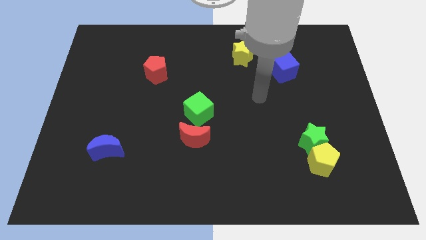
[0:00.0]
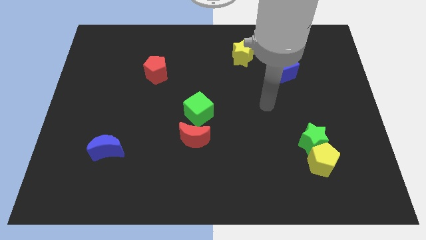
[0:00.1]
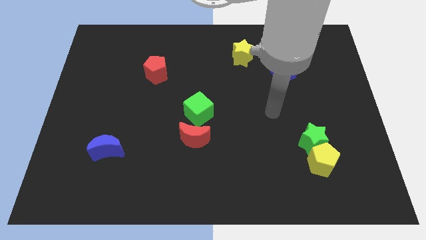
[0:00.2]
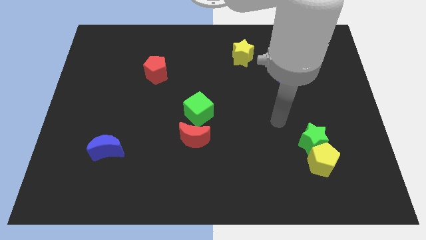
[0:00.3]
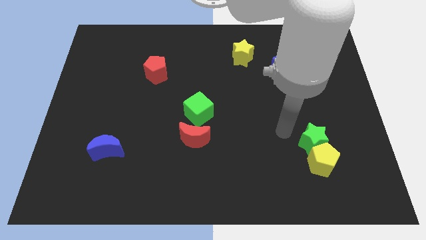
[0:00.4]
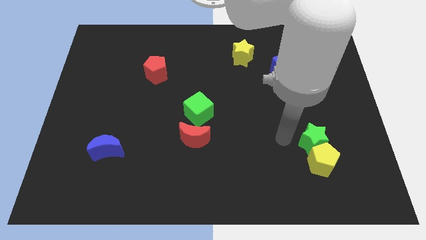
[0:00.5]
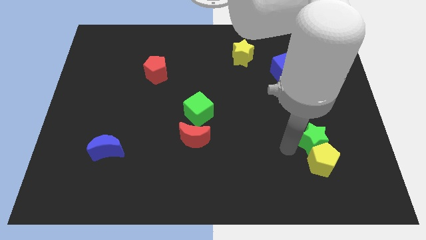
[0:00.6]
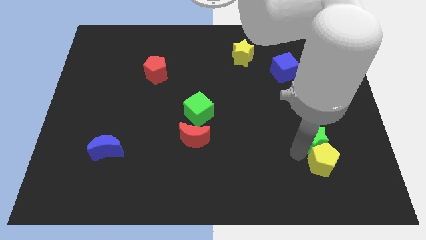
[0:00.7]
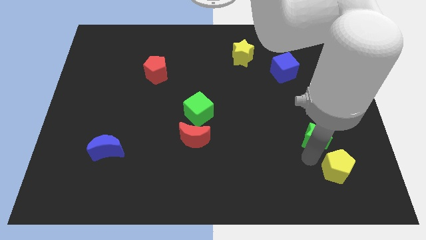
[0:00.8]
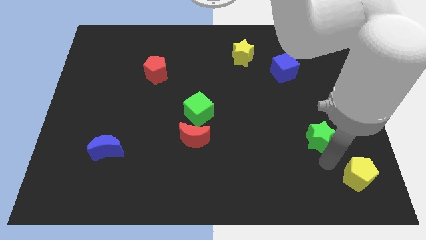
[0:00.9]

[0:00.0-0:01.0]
pull the green star apart from the yellow pentagon

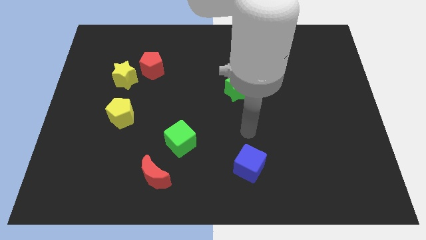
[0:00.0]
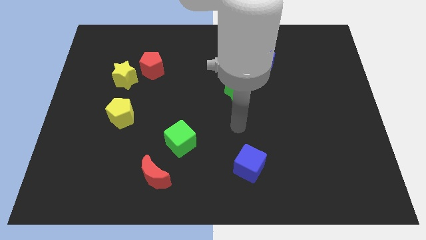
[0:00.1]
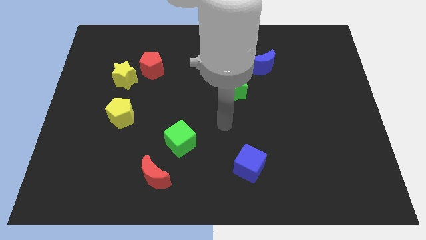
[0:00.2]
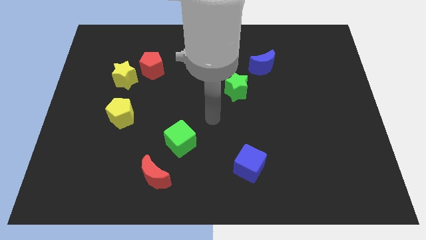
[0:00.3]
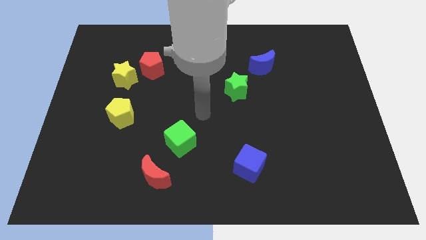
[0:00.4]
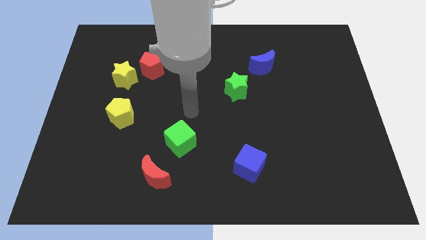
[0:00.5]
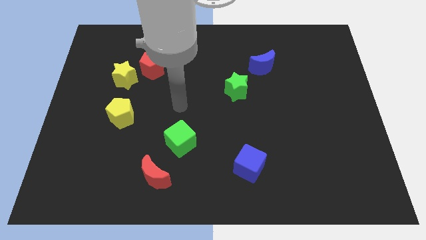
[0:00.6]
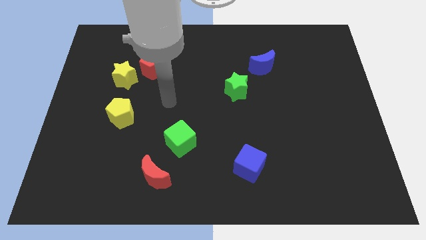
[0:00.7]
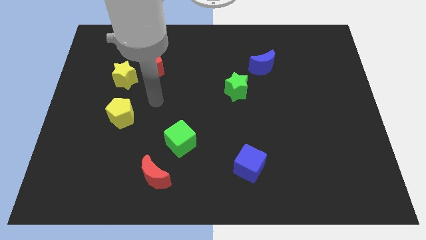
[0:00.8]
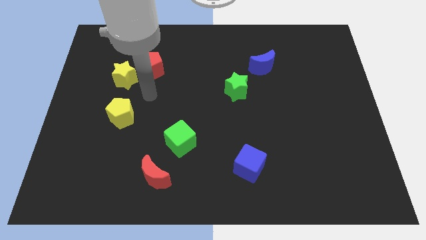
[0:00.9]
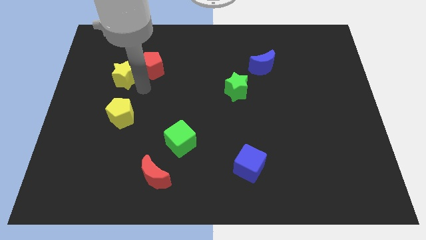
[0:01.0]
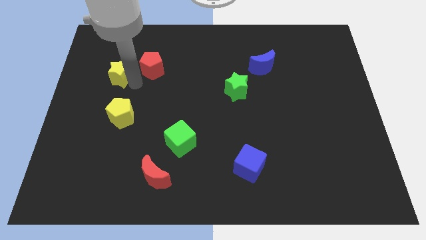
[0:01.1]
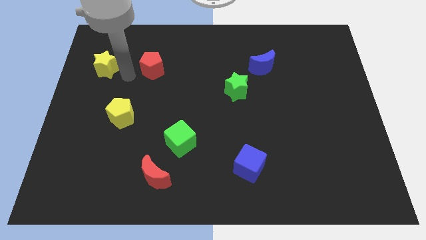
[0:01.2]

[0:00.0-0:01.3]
separate the red pentagon from the yellow star

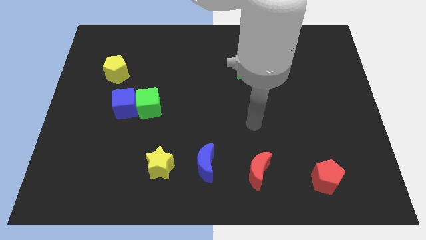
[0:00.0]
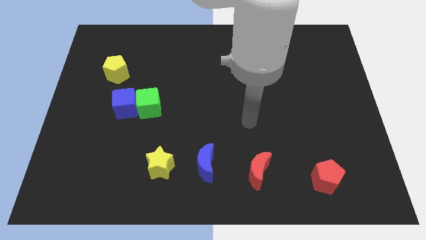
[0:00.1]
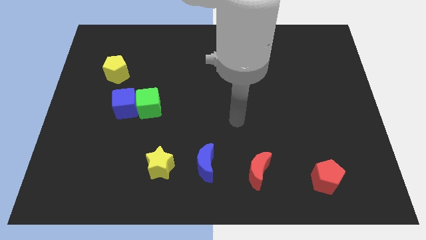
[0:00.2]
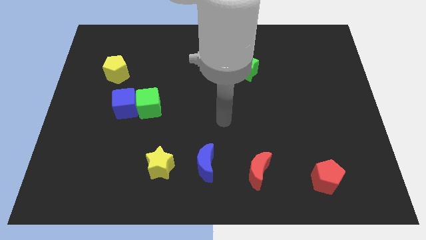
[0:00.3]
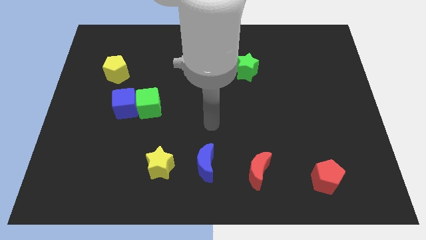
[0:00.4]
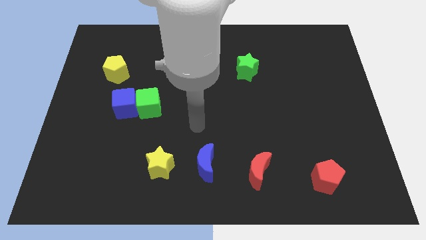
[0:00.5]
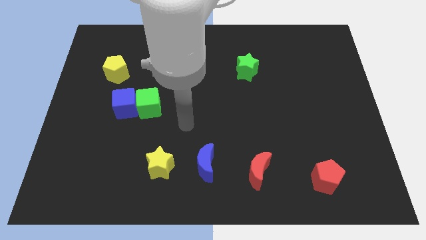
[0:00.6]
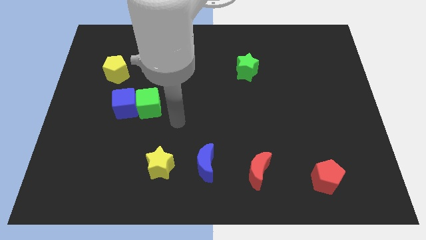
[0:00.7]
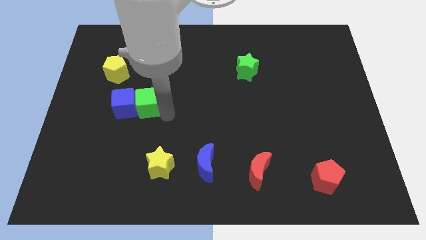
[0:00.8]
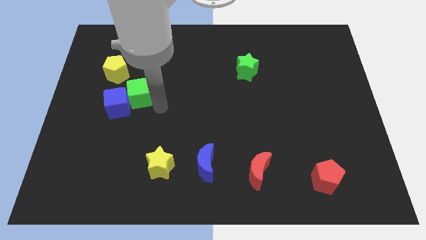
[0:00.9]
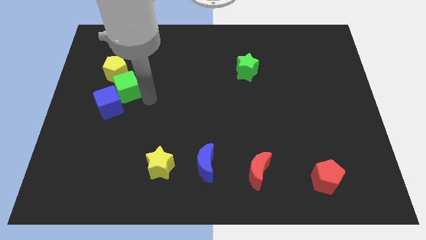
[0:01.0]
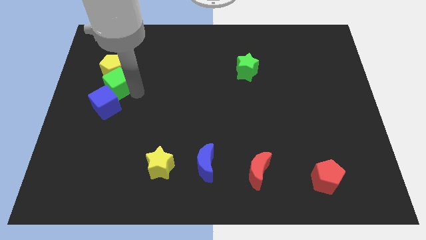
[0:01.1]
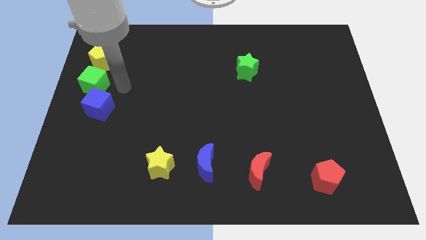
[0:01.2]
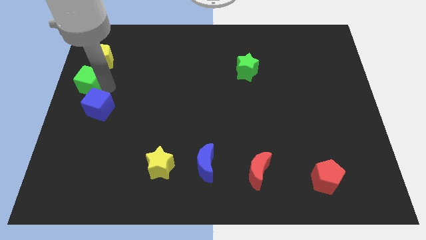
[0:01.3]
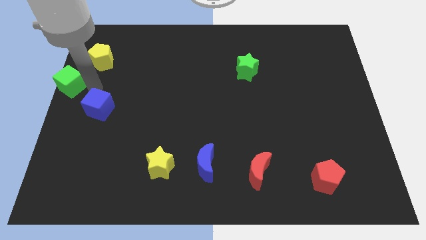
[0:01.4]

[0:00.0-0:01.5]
pull the blue cube apart from the green cube

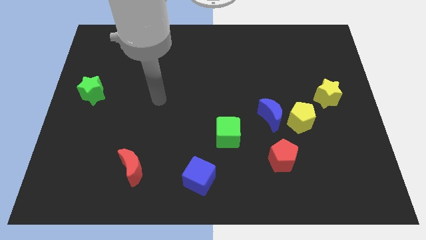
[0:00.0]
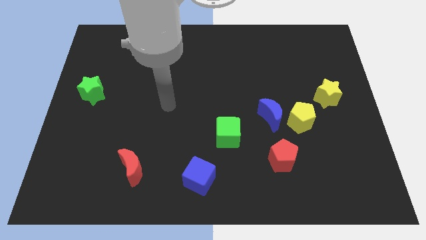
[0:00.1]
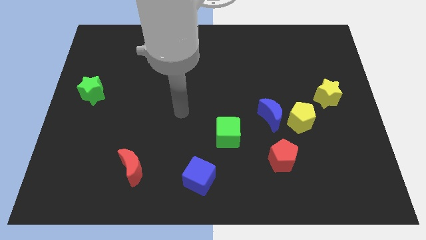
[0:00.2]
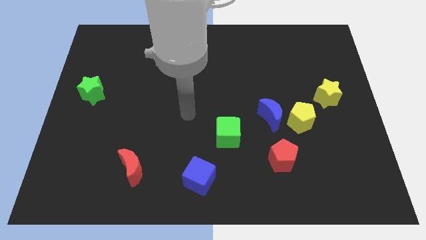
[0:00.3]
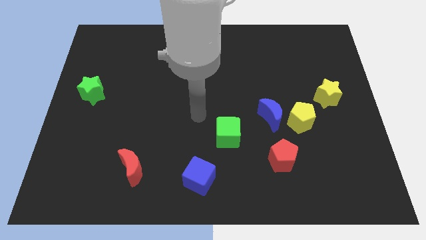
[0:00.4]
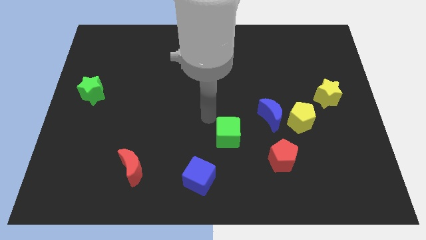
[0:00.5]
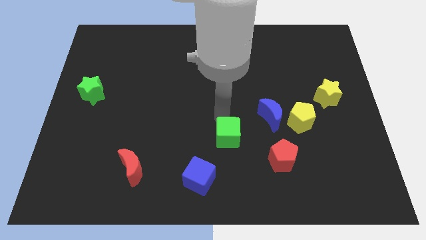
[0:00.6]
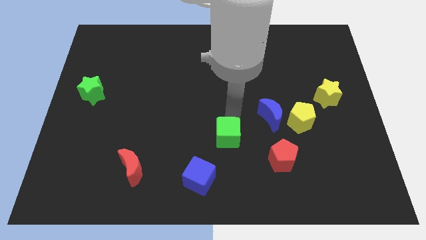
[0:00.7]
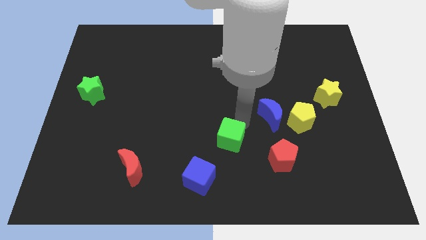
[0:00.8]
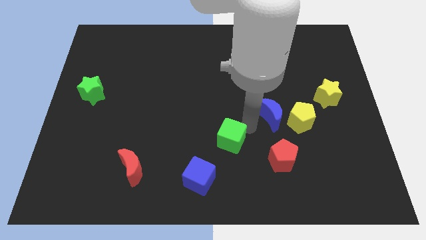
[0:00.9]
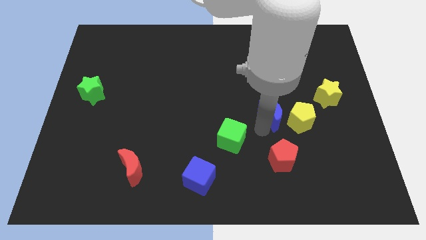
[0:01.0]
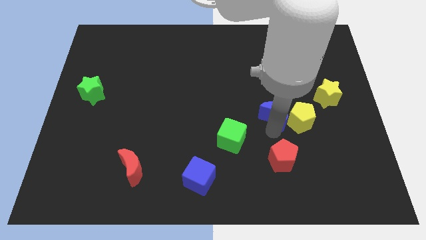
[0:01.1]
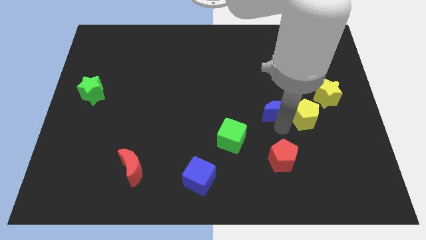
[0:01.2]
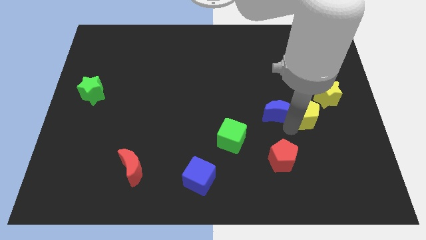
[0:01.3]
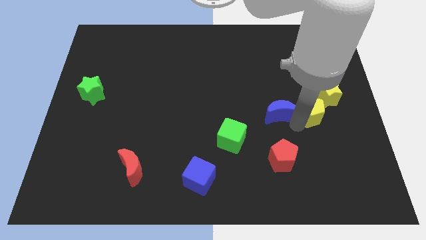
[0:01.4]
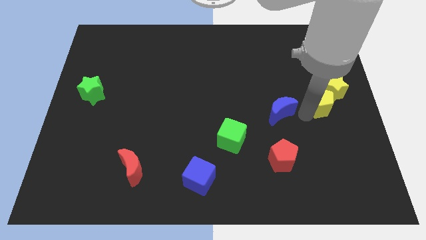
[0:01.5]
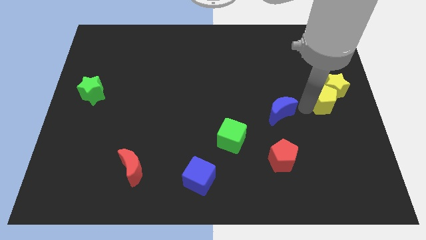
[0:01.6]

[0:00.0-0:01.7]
move the blue moon away from the yellow pentagon

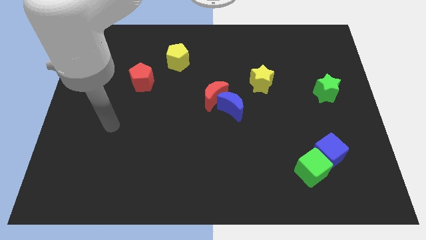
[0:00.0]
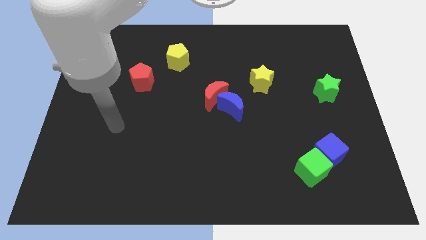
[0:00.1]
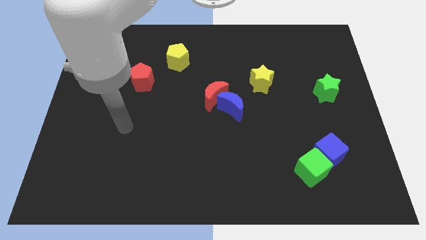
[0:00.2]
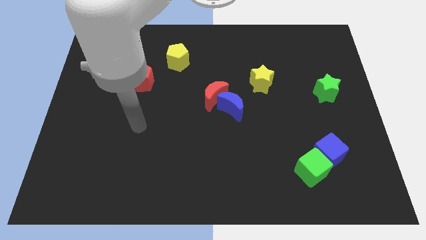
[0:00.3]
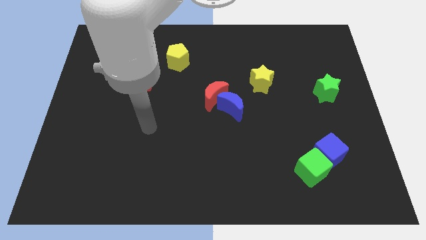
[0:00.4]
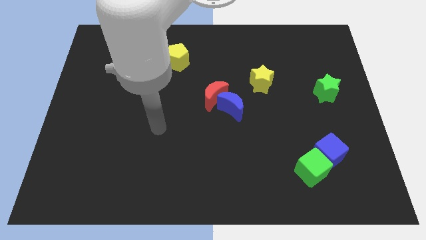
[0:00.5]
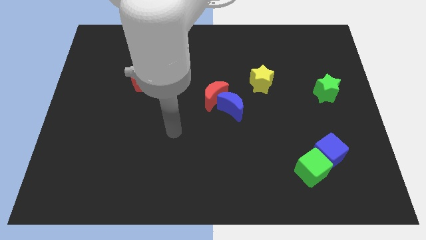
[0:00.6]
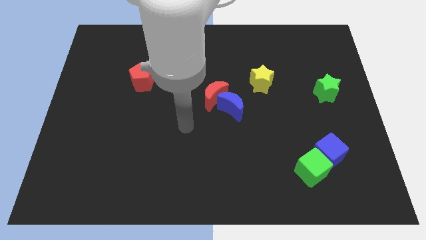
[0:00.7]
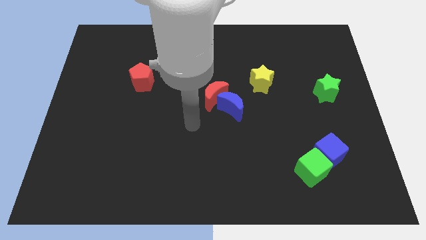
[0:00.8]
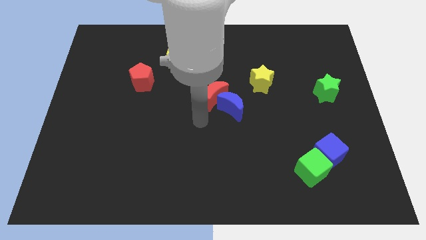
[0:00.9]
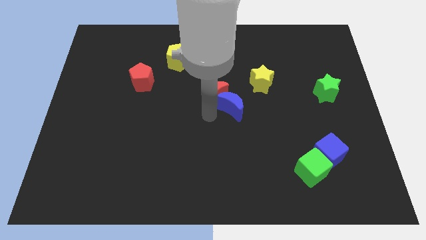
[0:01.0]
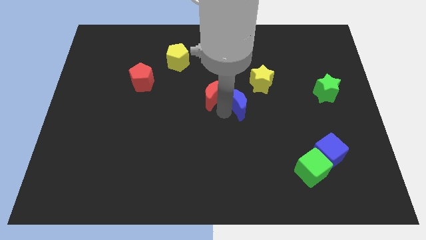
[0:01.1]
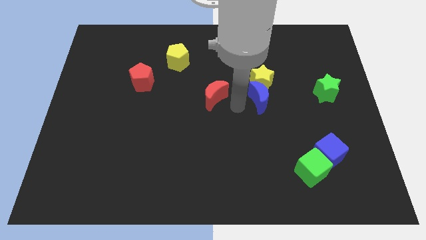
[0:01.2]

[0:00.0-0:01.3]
separate the red moon from the blue moon

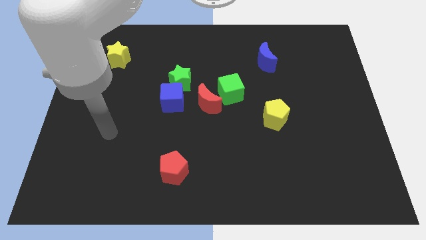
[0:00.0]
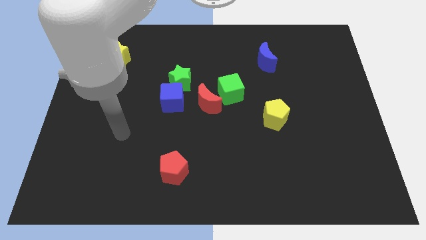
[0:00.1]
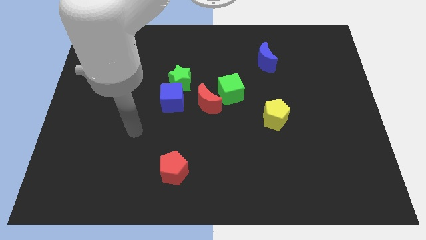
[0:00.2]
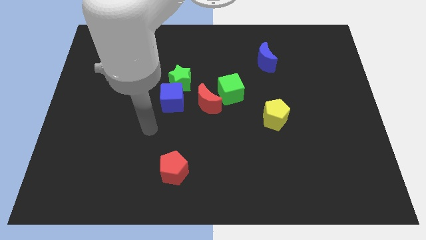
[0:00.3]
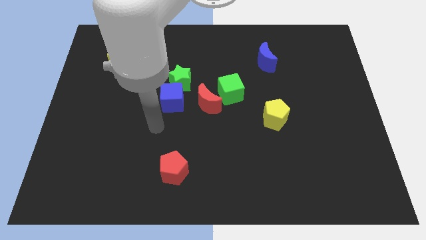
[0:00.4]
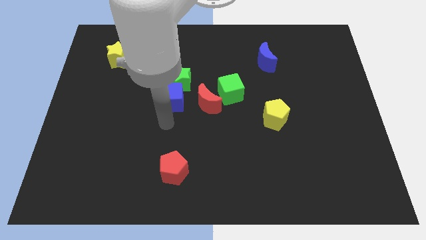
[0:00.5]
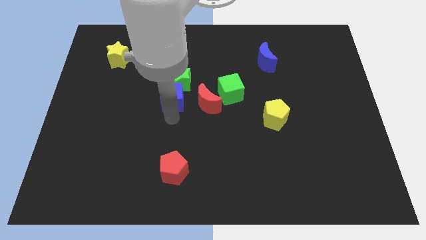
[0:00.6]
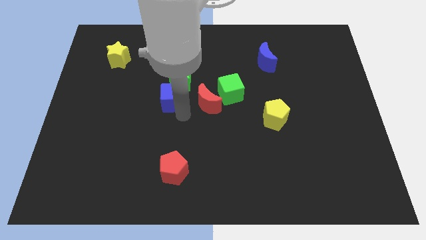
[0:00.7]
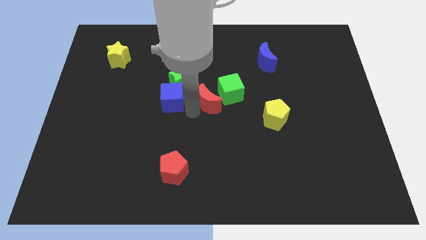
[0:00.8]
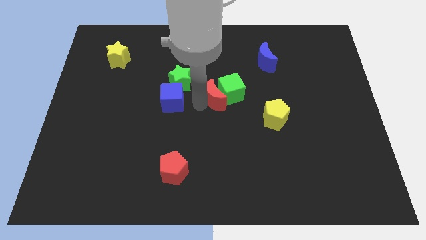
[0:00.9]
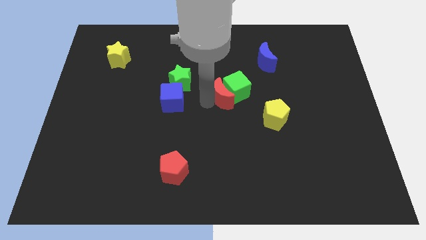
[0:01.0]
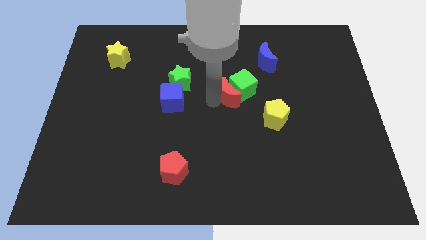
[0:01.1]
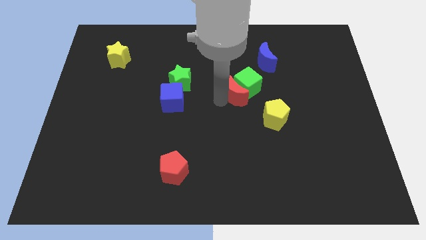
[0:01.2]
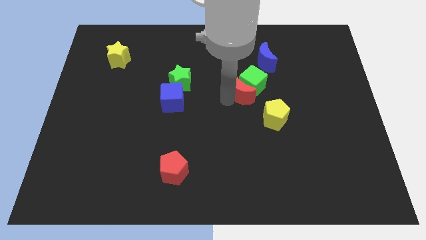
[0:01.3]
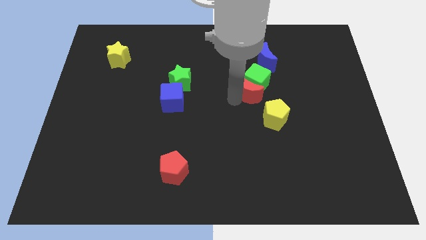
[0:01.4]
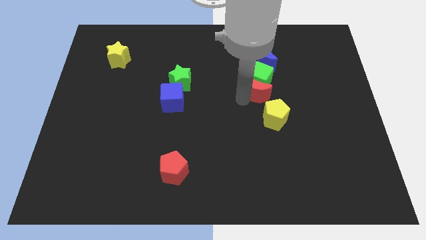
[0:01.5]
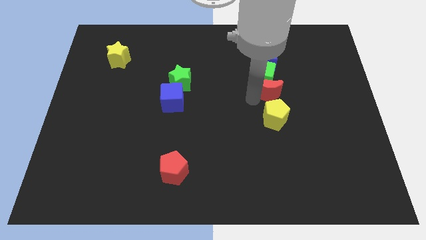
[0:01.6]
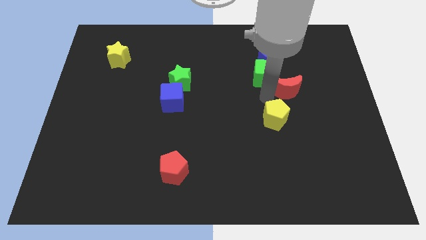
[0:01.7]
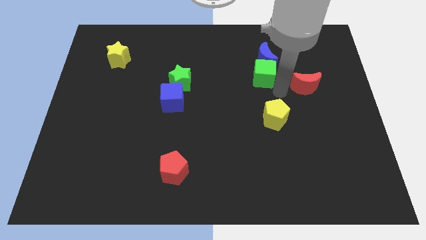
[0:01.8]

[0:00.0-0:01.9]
move the green cube away from the red moon

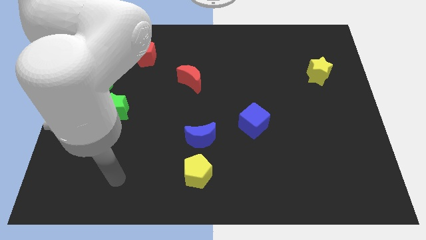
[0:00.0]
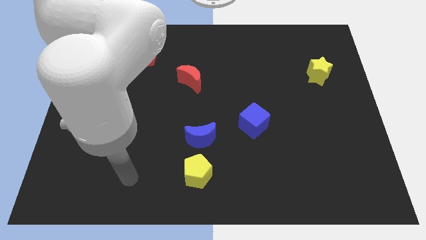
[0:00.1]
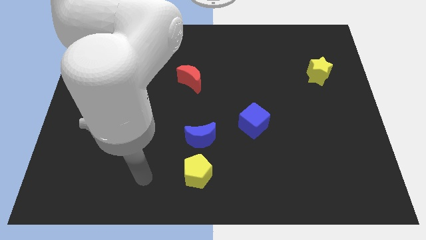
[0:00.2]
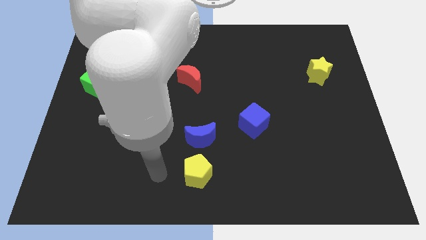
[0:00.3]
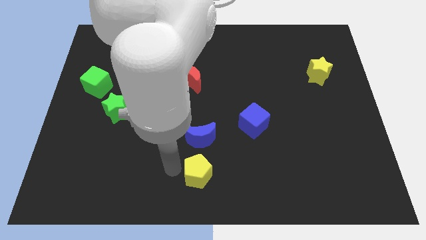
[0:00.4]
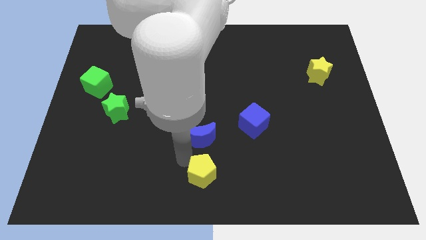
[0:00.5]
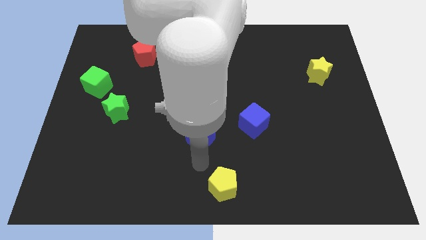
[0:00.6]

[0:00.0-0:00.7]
pull the blue moon apart from the yellow pentagon
